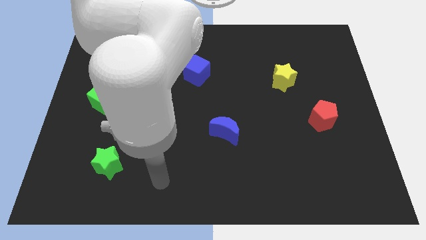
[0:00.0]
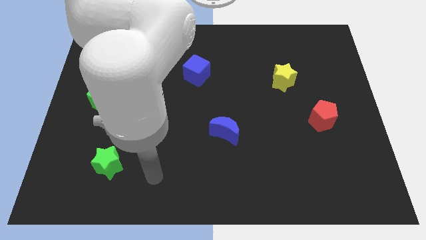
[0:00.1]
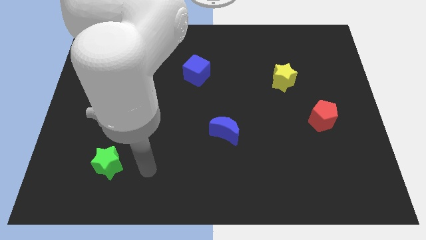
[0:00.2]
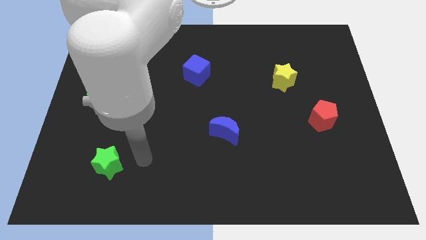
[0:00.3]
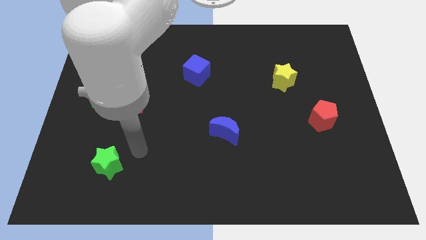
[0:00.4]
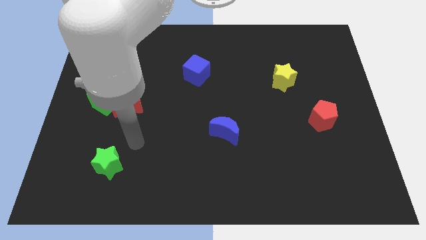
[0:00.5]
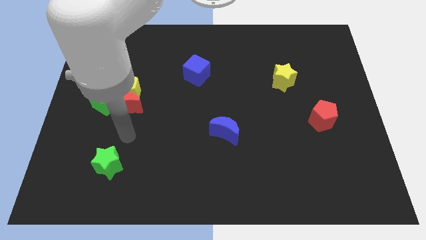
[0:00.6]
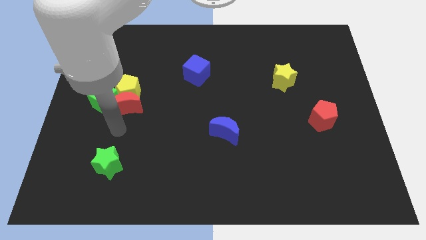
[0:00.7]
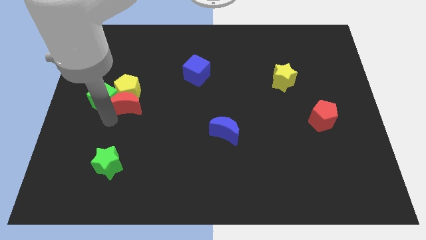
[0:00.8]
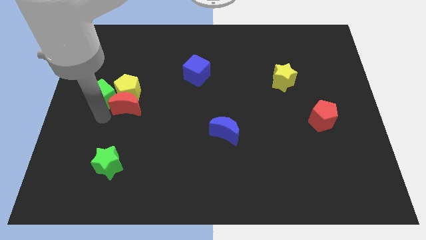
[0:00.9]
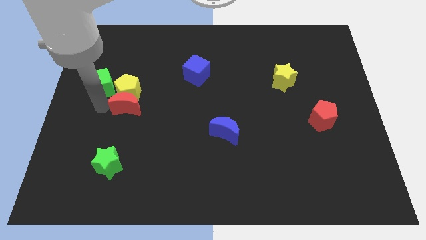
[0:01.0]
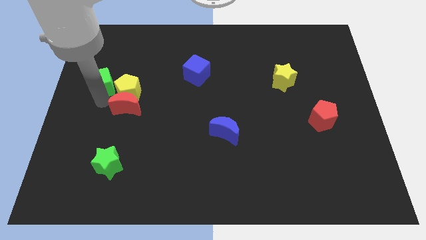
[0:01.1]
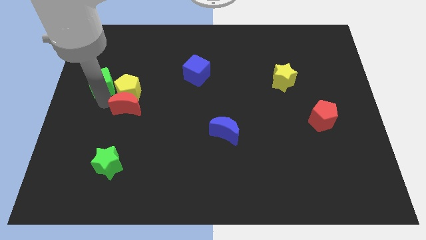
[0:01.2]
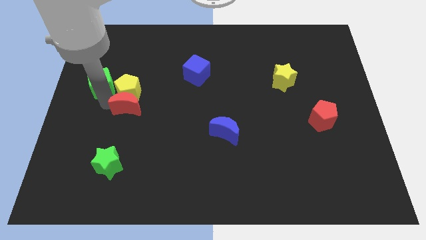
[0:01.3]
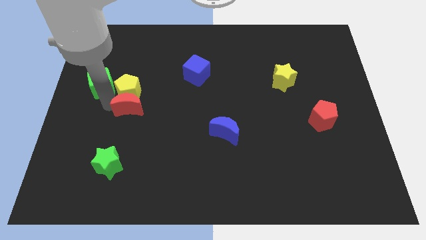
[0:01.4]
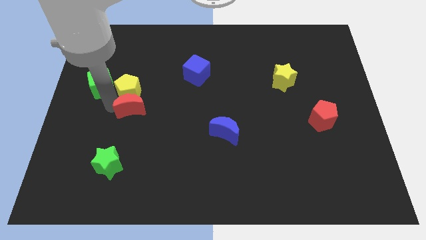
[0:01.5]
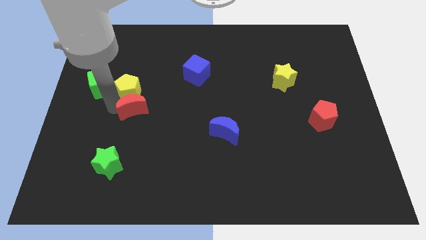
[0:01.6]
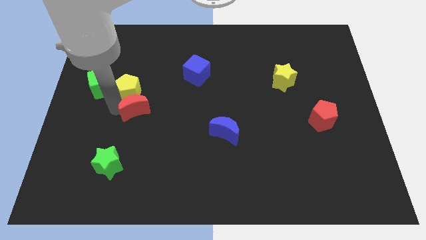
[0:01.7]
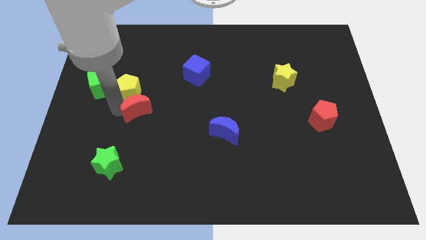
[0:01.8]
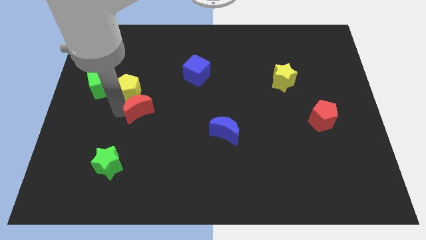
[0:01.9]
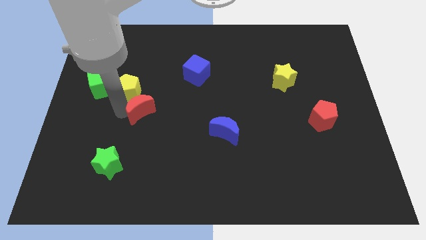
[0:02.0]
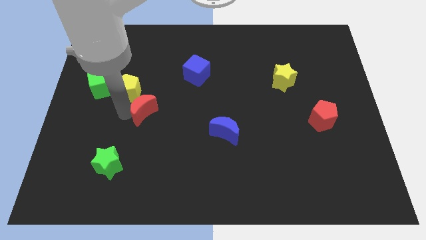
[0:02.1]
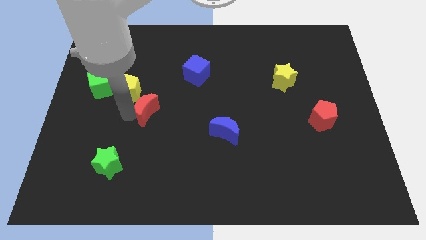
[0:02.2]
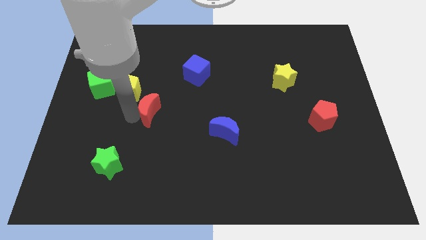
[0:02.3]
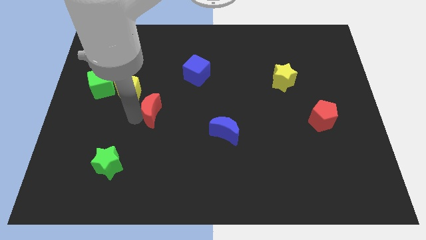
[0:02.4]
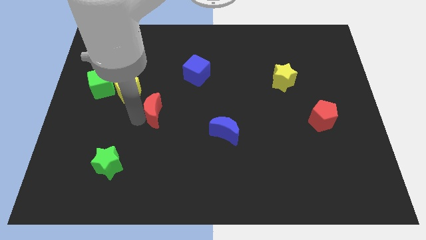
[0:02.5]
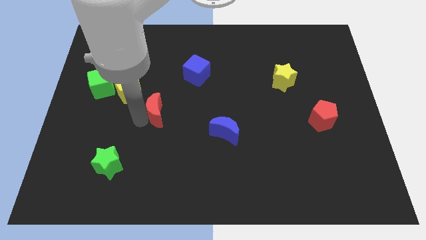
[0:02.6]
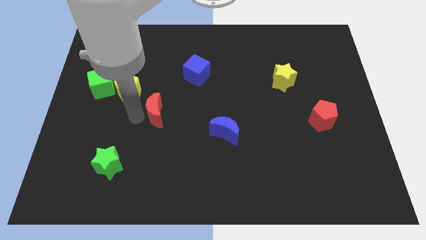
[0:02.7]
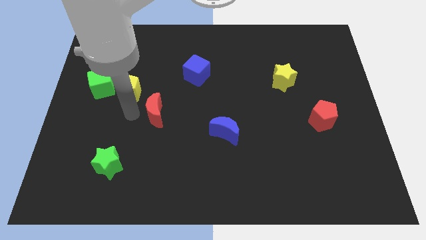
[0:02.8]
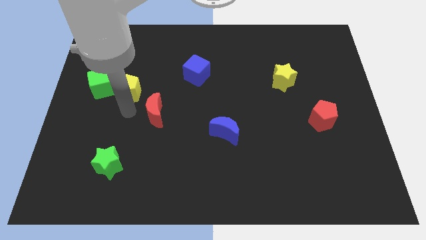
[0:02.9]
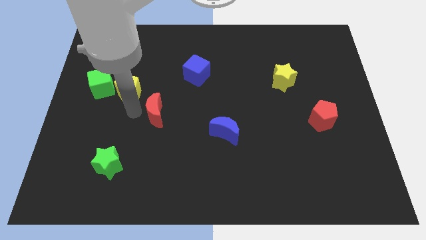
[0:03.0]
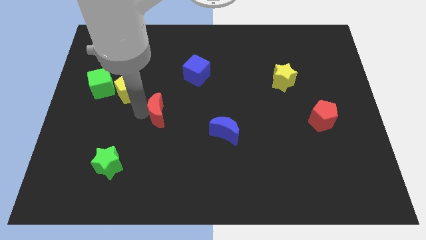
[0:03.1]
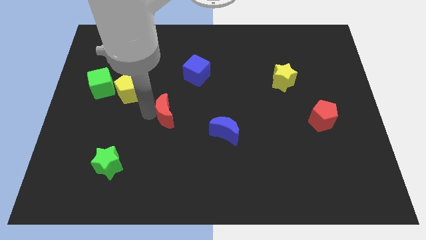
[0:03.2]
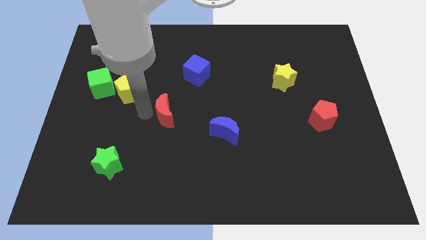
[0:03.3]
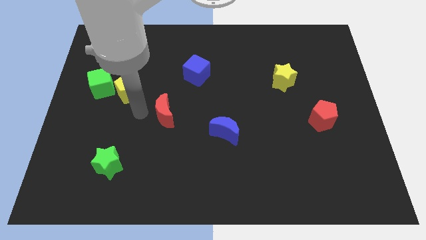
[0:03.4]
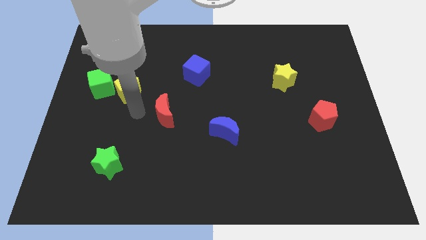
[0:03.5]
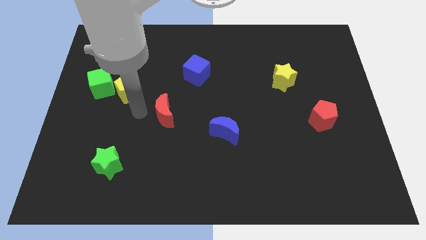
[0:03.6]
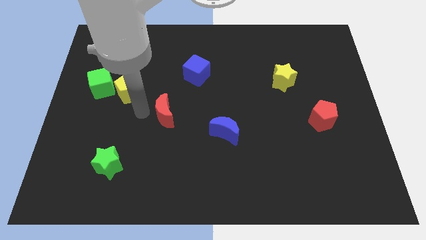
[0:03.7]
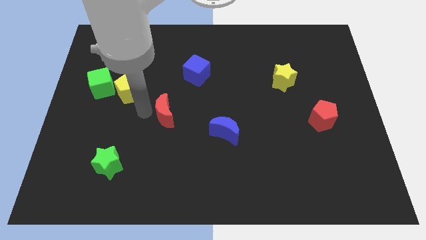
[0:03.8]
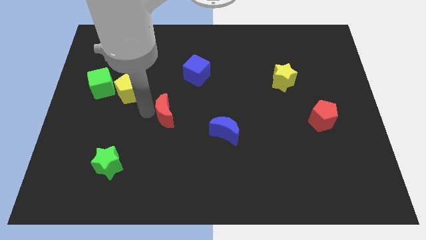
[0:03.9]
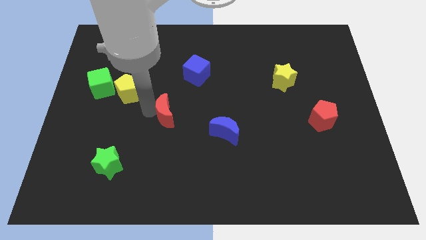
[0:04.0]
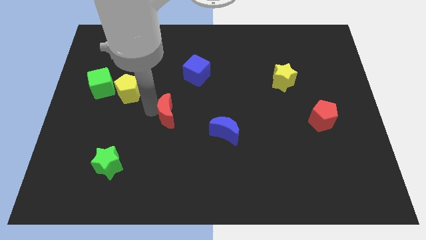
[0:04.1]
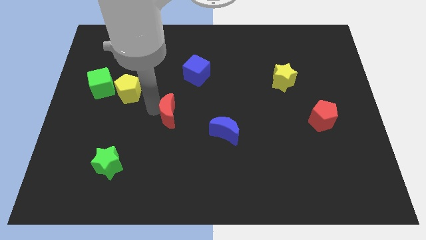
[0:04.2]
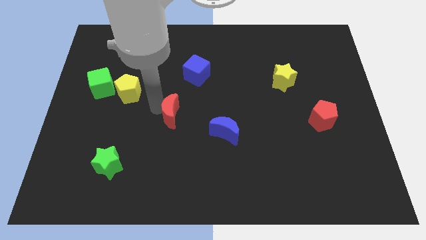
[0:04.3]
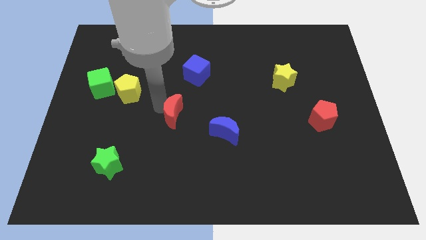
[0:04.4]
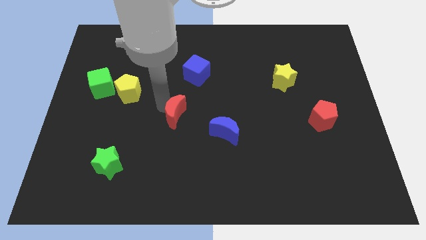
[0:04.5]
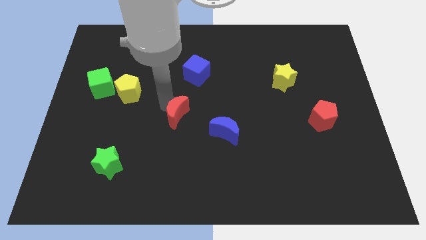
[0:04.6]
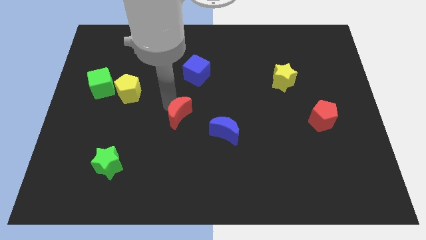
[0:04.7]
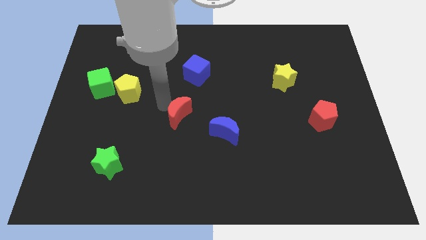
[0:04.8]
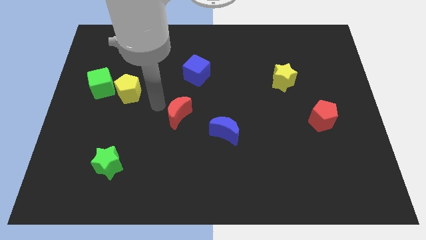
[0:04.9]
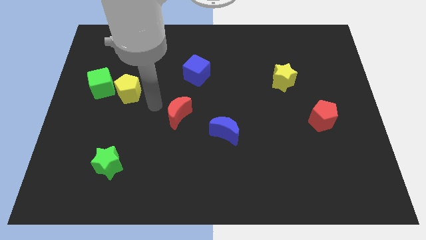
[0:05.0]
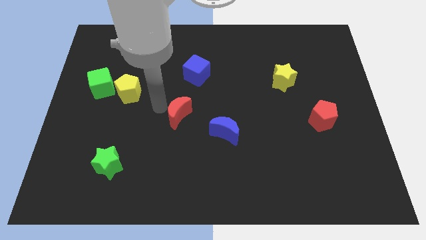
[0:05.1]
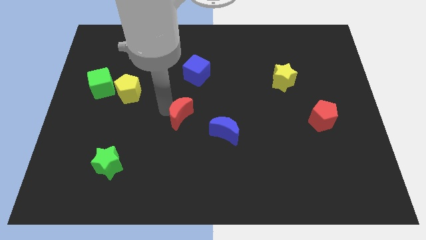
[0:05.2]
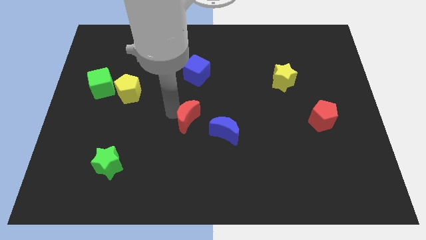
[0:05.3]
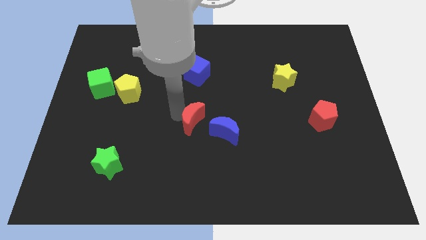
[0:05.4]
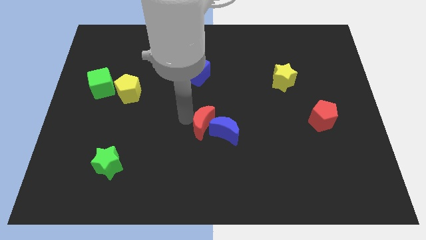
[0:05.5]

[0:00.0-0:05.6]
slide the red moon close to the blue moon

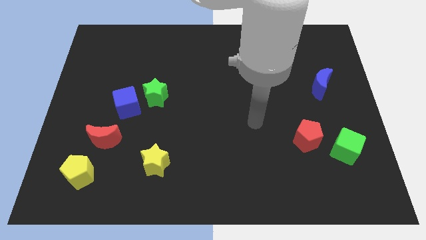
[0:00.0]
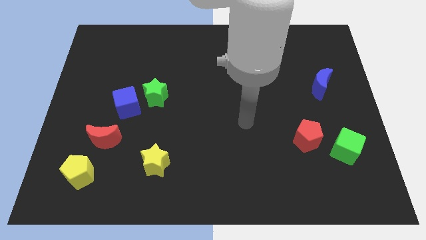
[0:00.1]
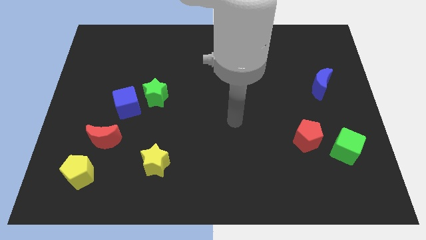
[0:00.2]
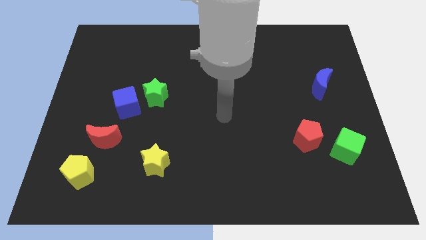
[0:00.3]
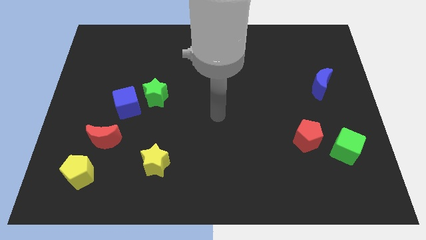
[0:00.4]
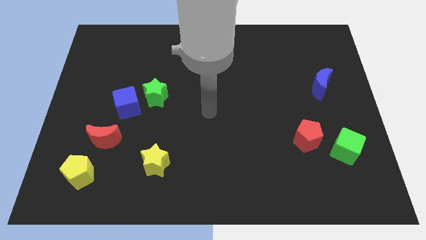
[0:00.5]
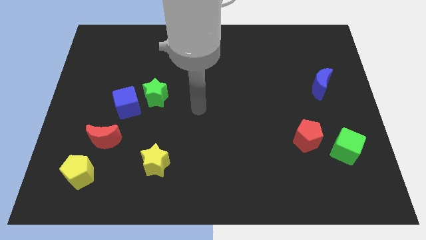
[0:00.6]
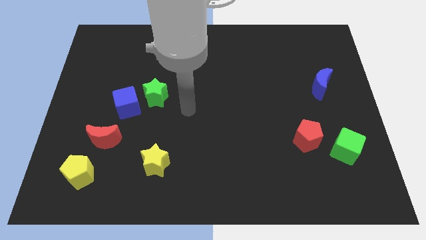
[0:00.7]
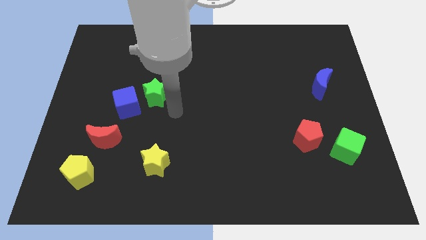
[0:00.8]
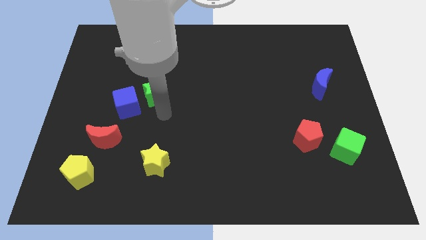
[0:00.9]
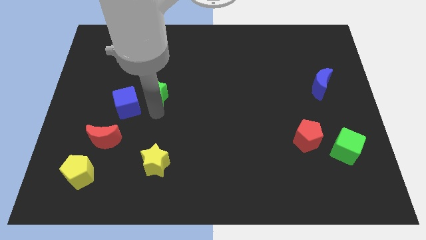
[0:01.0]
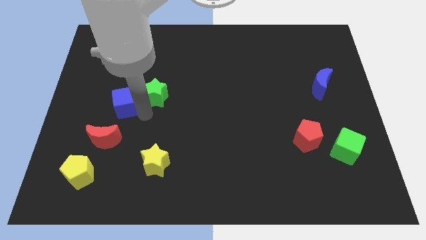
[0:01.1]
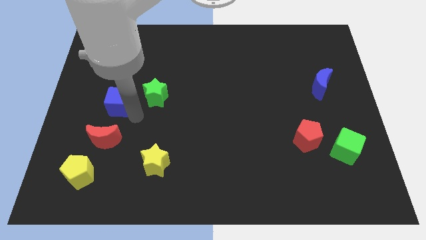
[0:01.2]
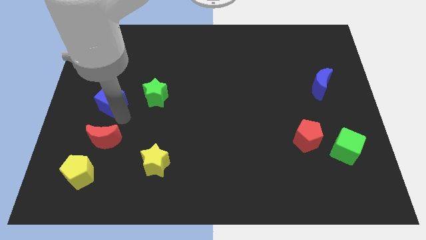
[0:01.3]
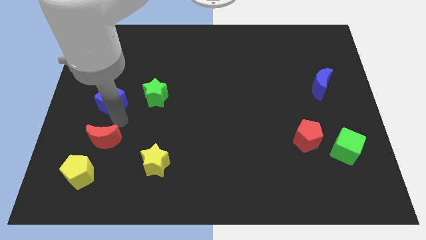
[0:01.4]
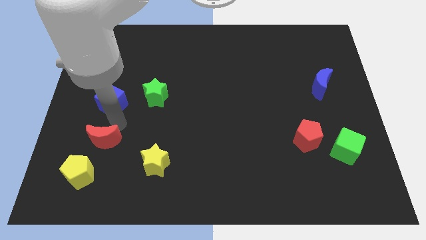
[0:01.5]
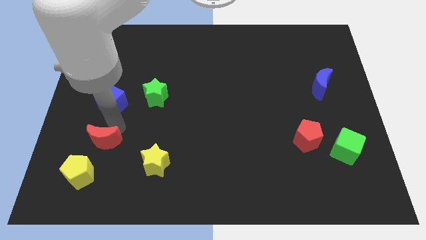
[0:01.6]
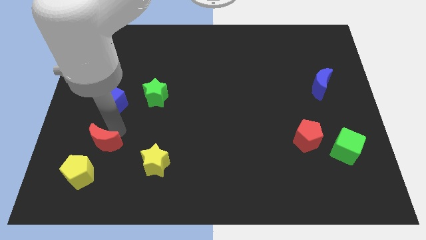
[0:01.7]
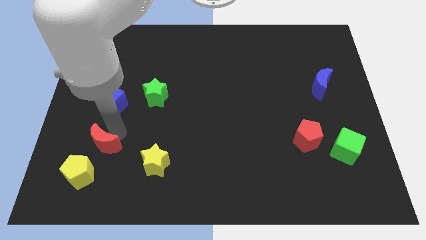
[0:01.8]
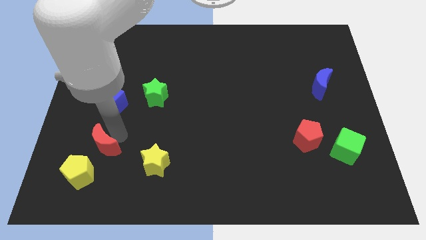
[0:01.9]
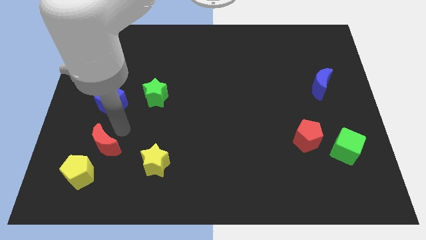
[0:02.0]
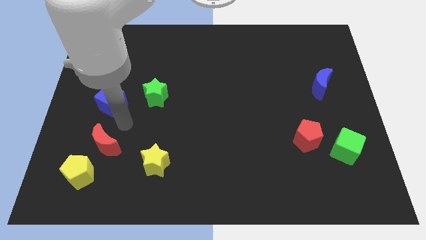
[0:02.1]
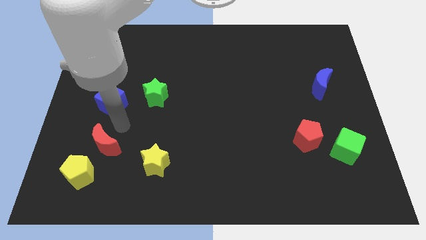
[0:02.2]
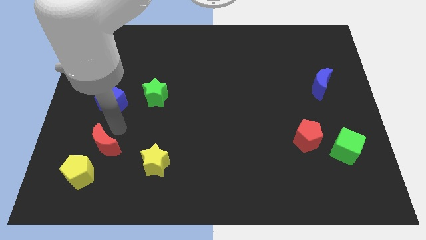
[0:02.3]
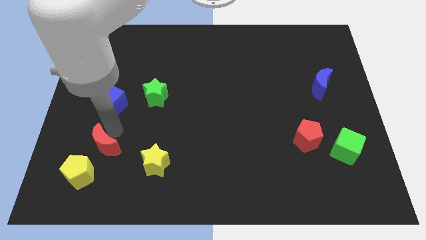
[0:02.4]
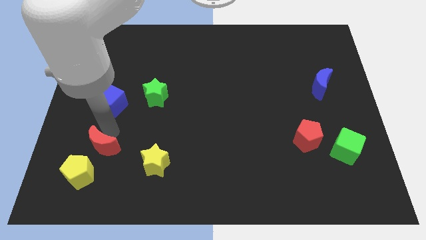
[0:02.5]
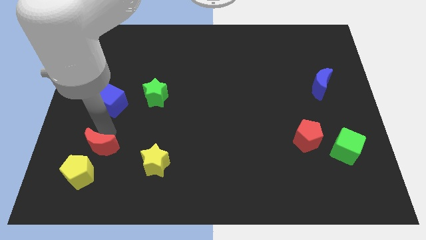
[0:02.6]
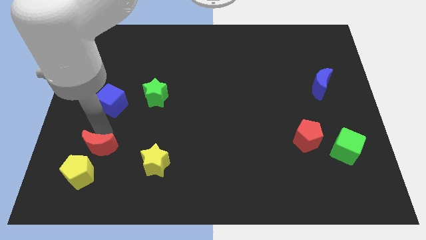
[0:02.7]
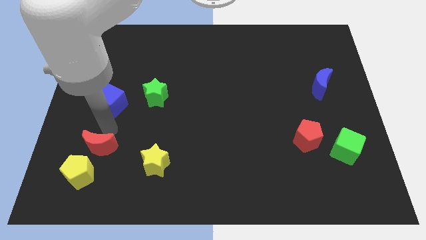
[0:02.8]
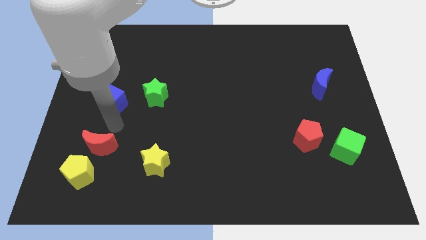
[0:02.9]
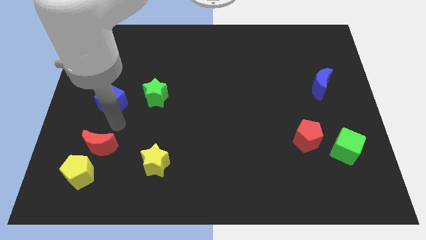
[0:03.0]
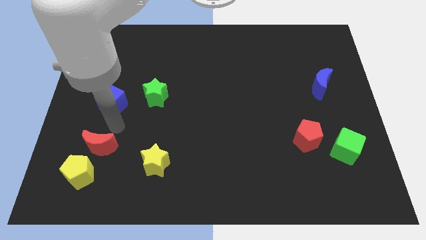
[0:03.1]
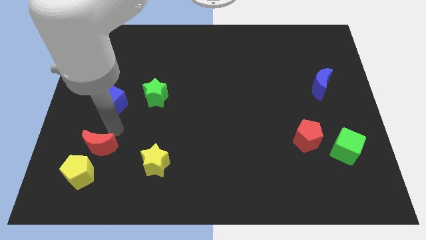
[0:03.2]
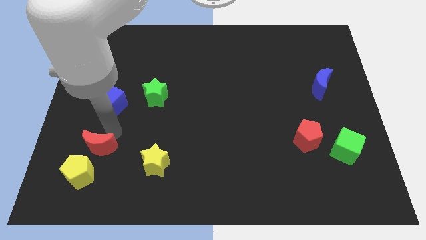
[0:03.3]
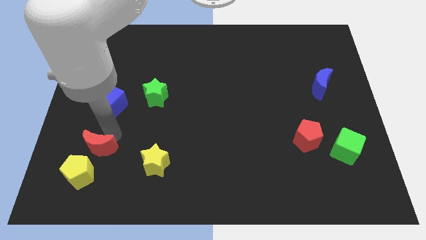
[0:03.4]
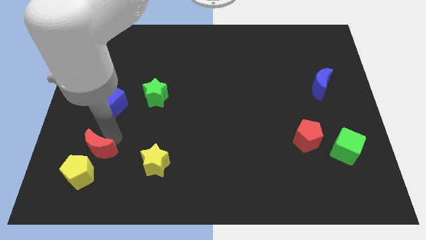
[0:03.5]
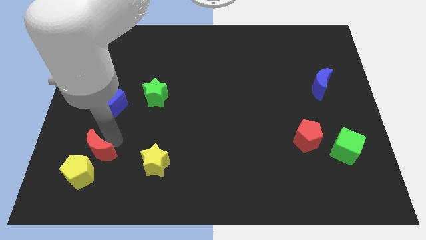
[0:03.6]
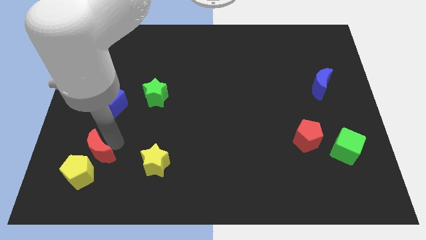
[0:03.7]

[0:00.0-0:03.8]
put the red moon towards the yellow pentagon
